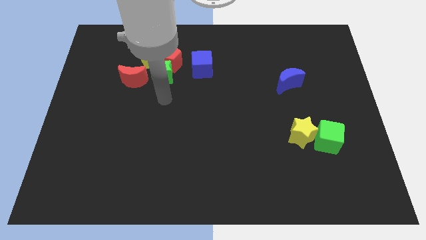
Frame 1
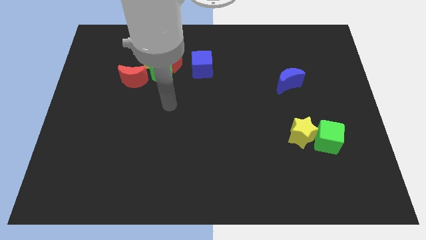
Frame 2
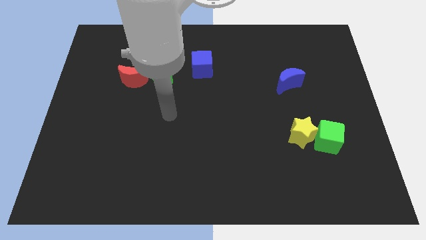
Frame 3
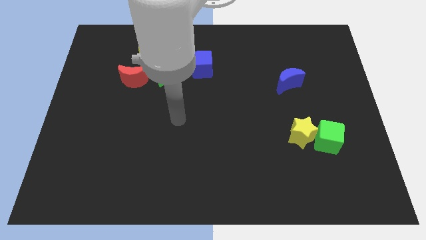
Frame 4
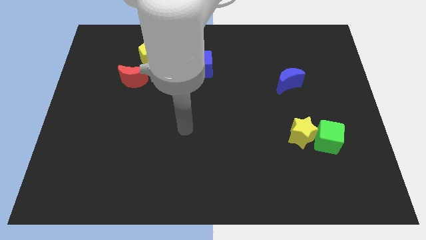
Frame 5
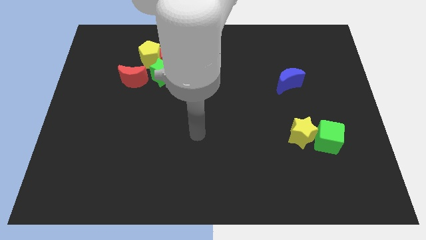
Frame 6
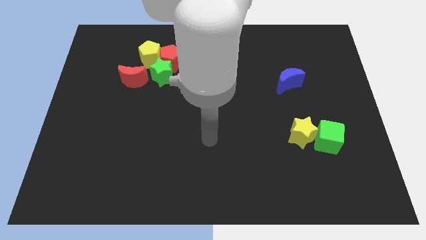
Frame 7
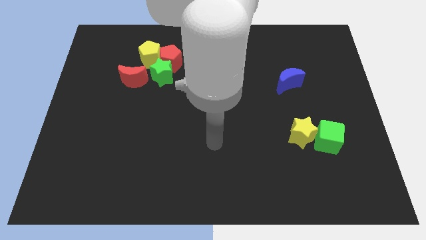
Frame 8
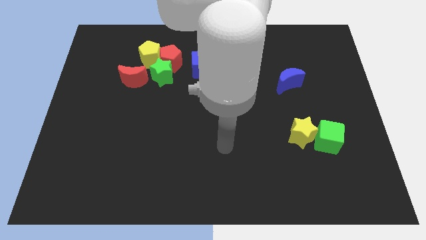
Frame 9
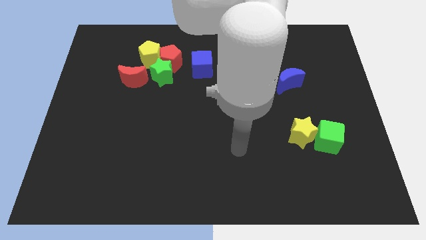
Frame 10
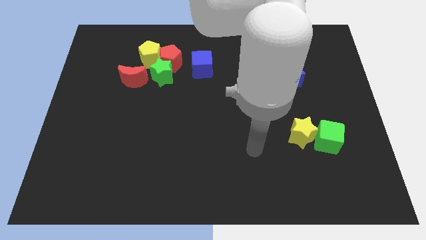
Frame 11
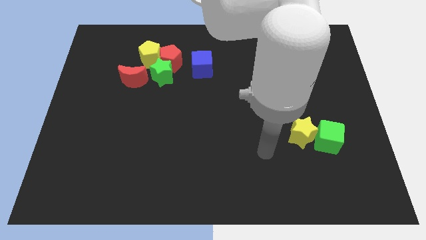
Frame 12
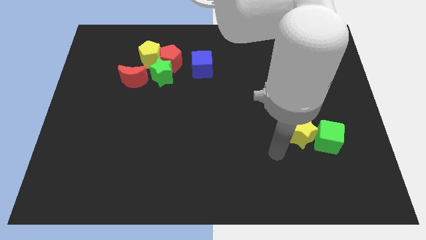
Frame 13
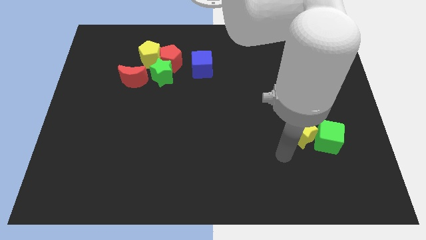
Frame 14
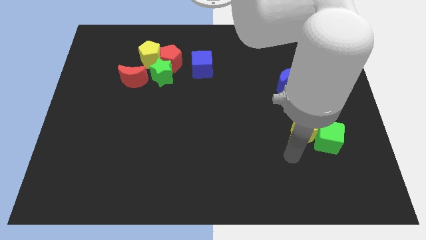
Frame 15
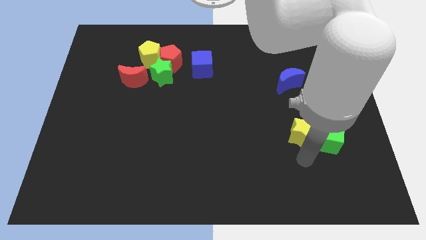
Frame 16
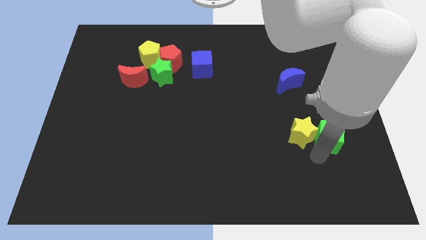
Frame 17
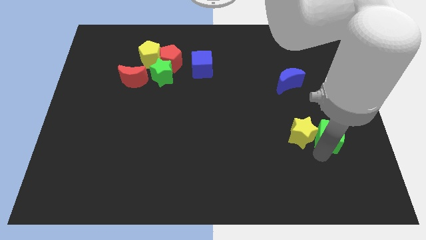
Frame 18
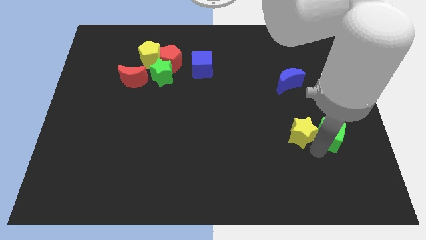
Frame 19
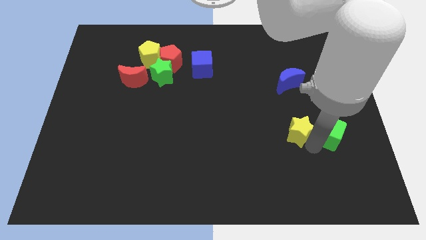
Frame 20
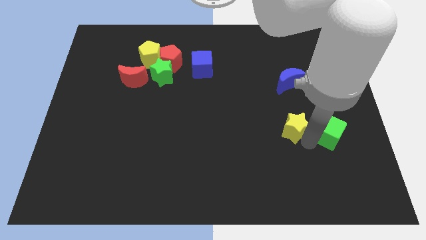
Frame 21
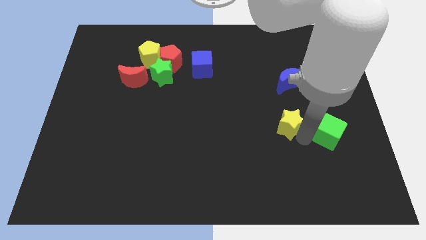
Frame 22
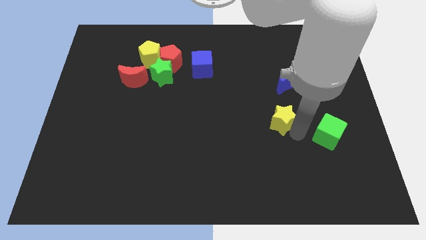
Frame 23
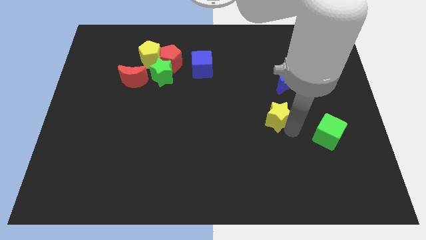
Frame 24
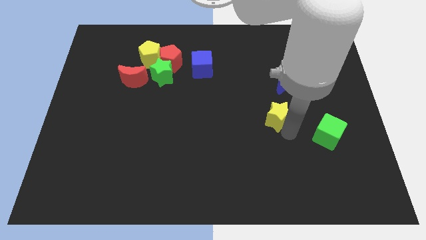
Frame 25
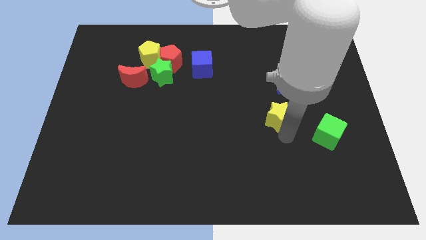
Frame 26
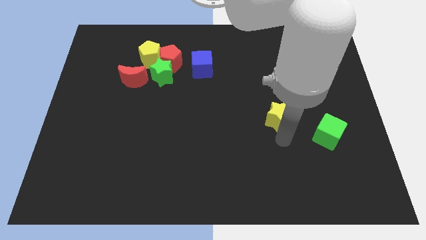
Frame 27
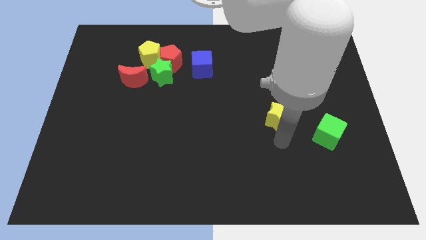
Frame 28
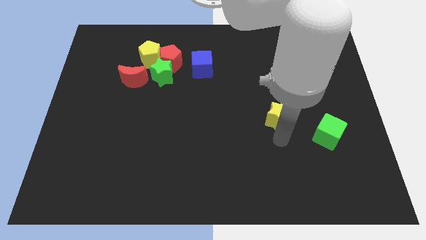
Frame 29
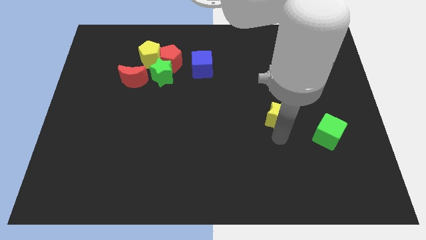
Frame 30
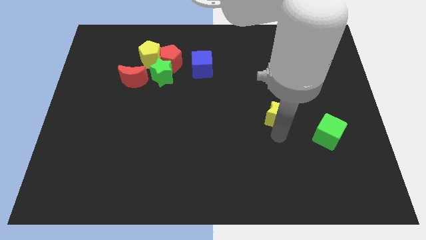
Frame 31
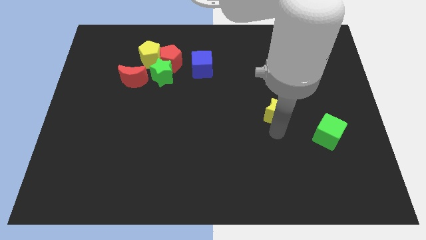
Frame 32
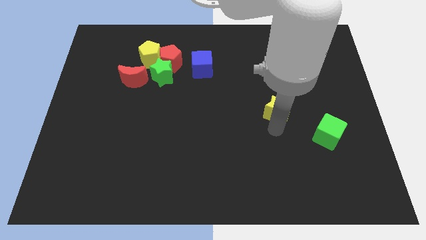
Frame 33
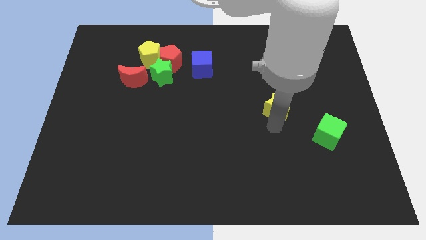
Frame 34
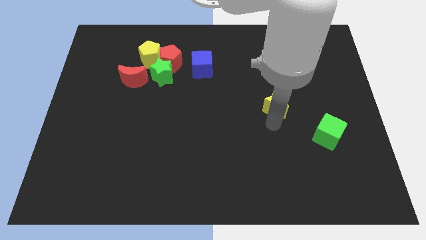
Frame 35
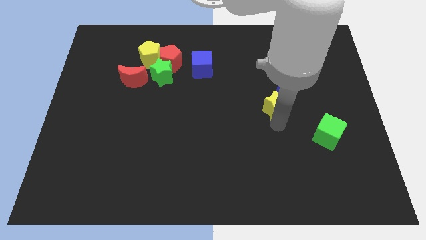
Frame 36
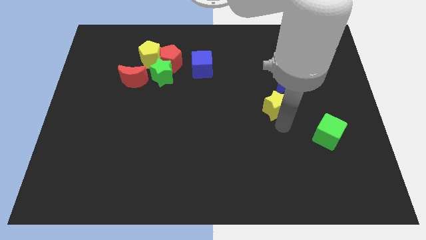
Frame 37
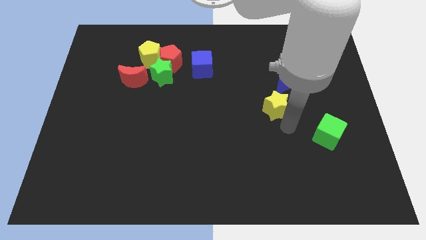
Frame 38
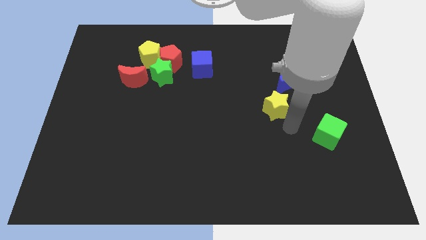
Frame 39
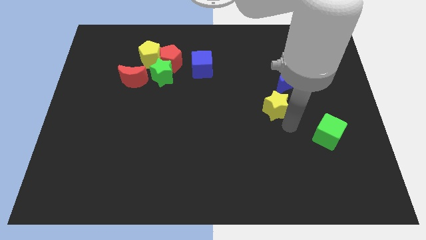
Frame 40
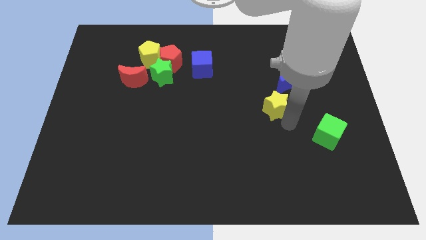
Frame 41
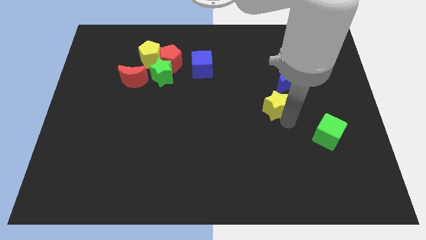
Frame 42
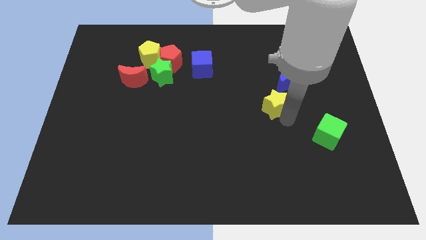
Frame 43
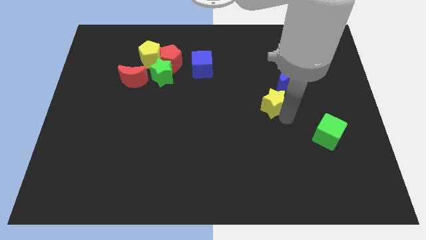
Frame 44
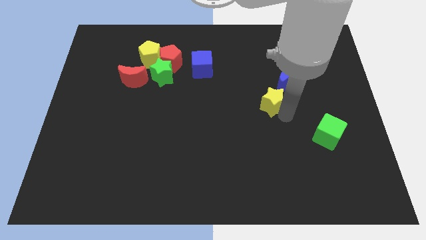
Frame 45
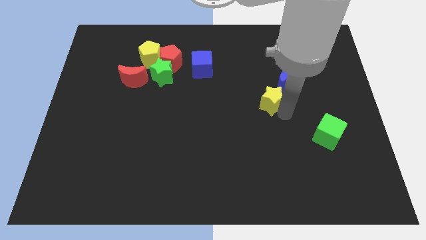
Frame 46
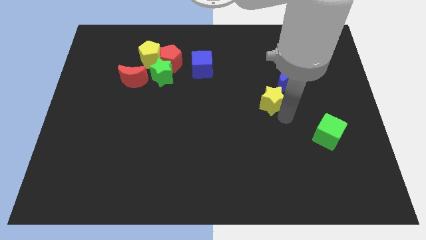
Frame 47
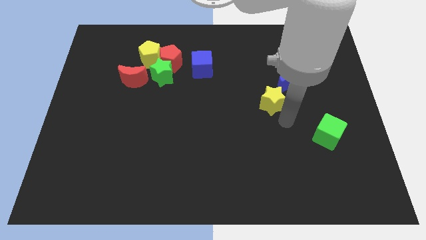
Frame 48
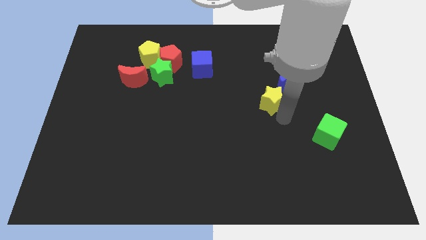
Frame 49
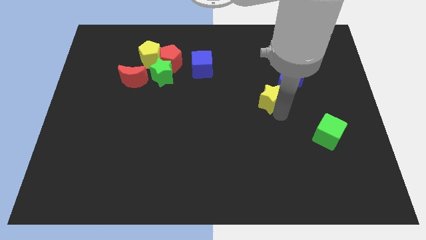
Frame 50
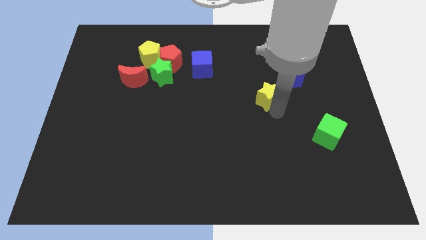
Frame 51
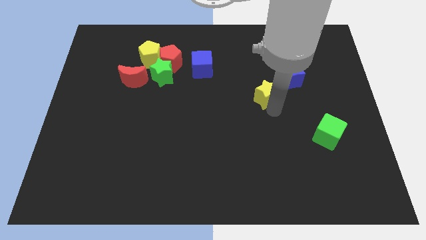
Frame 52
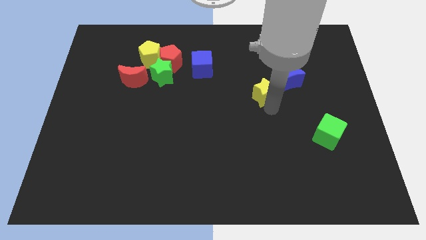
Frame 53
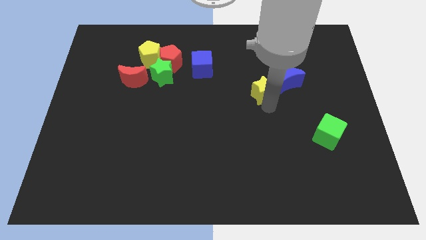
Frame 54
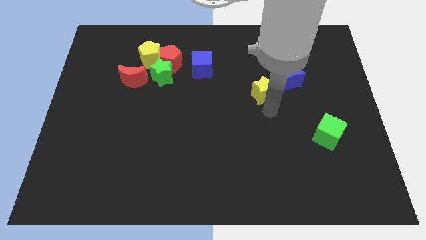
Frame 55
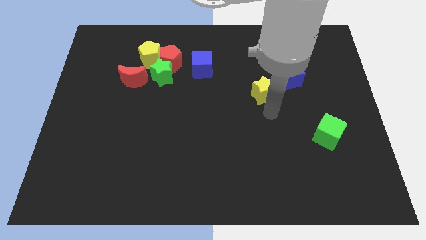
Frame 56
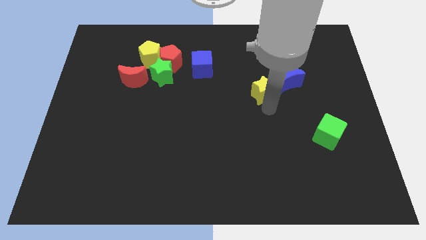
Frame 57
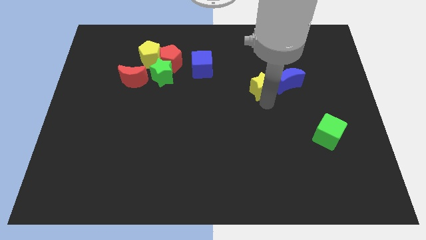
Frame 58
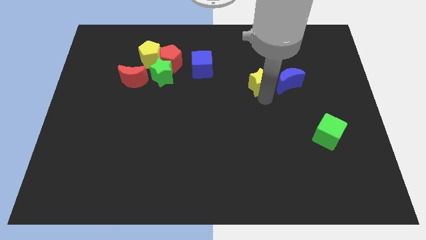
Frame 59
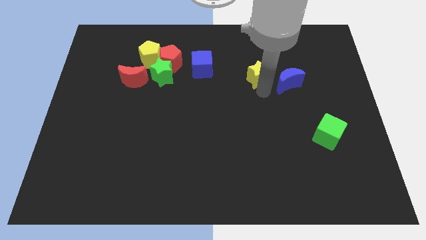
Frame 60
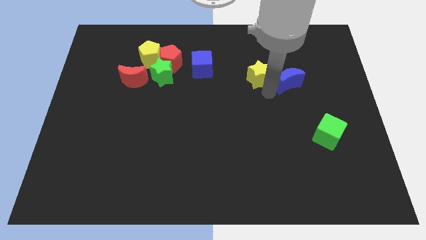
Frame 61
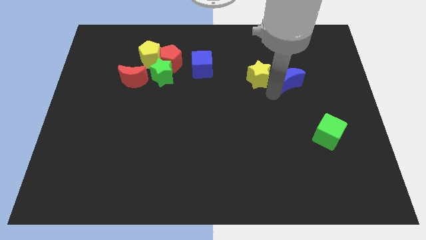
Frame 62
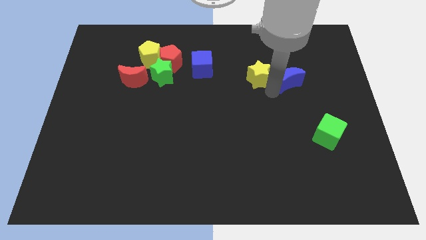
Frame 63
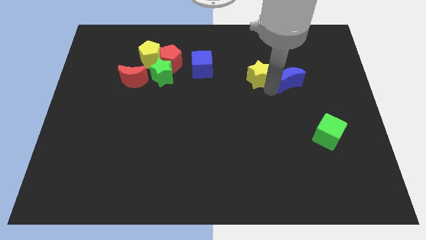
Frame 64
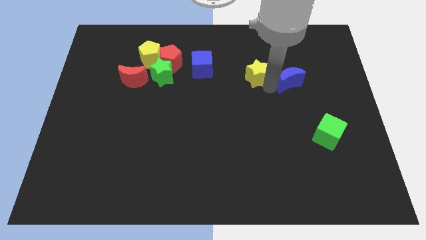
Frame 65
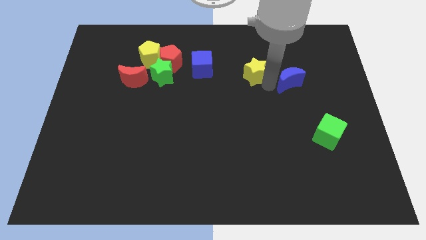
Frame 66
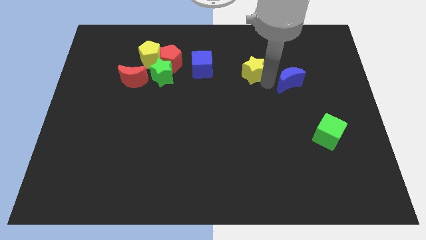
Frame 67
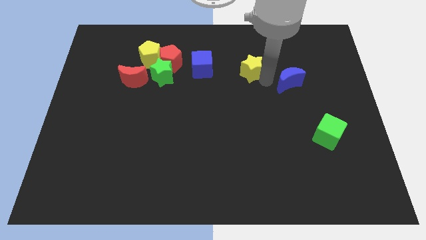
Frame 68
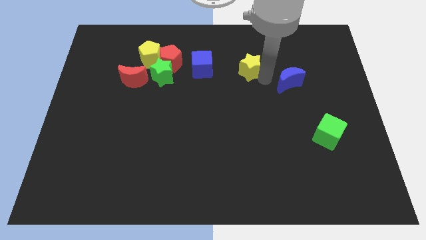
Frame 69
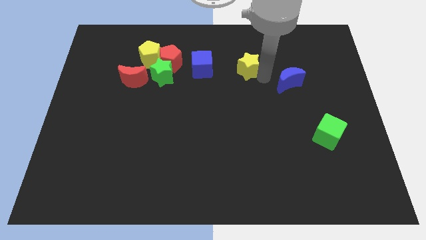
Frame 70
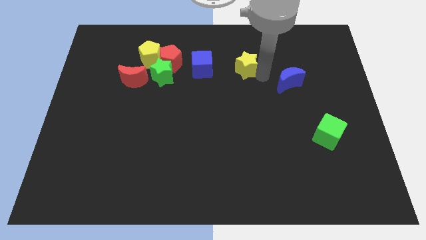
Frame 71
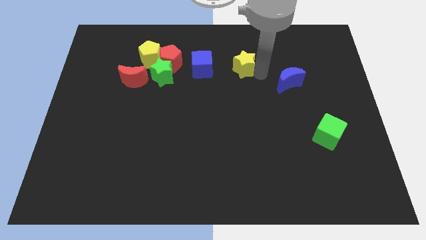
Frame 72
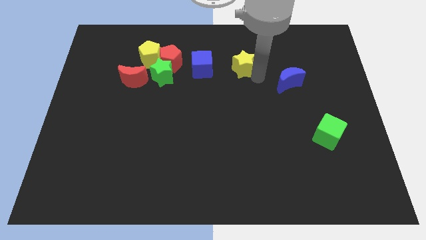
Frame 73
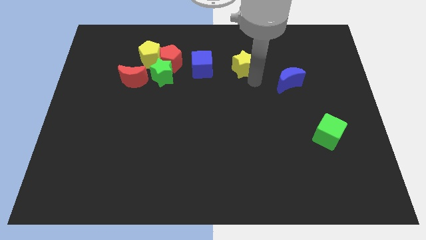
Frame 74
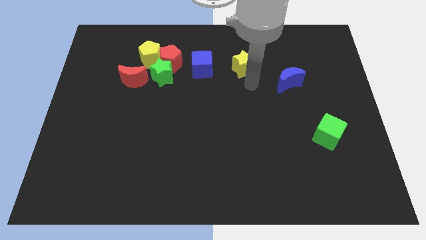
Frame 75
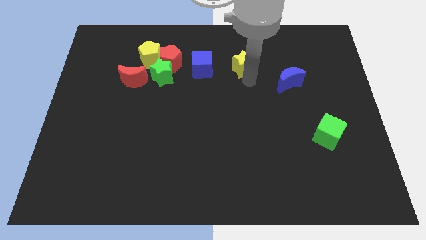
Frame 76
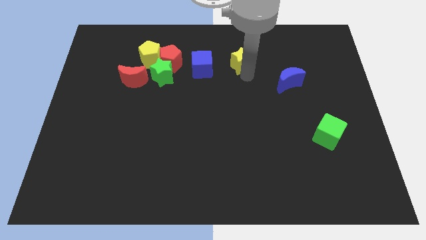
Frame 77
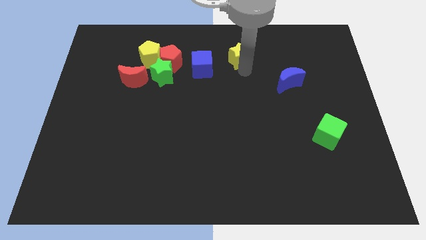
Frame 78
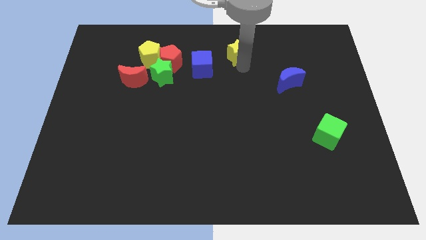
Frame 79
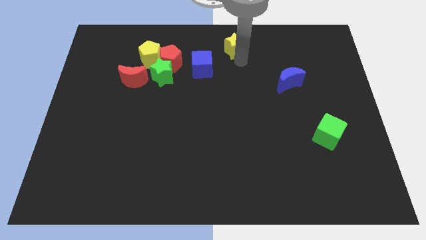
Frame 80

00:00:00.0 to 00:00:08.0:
move the yellow star to the top side
